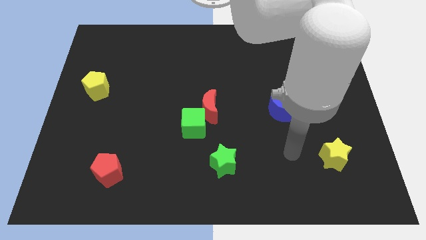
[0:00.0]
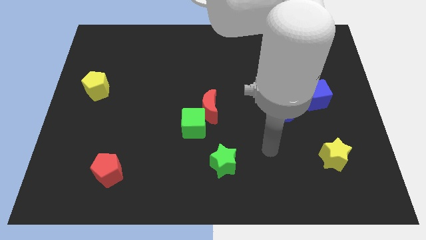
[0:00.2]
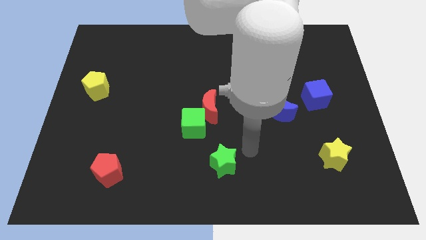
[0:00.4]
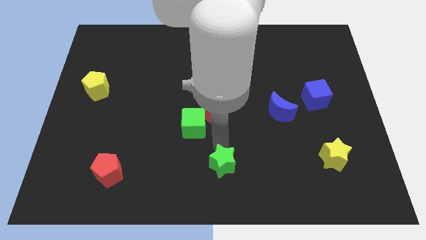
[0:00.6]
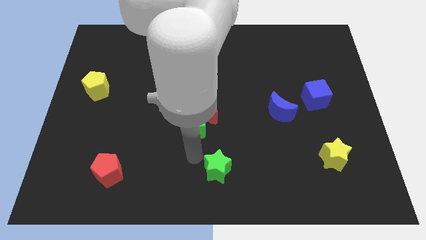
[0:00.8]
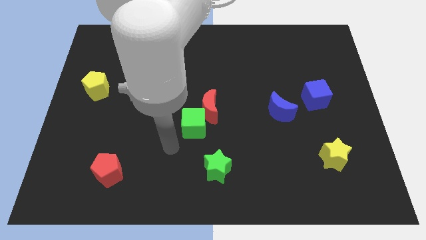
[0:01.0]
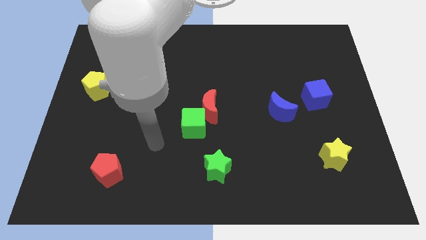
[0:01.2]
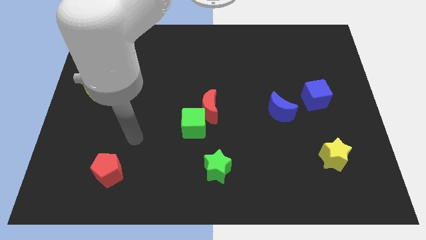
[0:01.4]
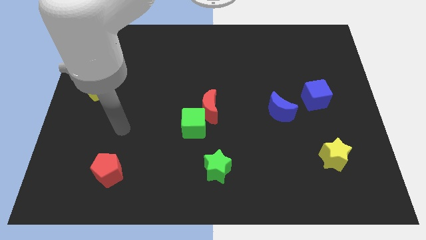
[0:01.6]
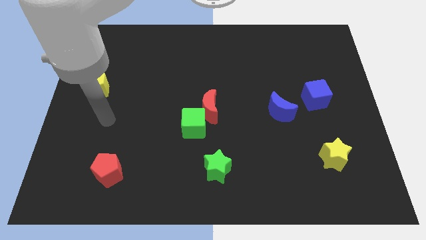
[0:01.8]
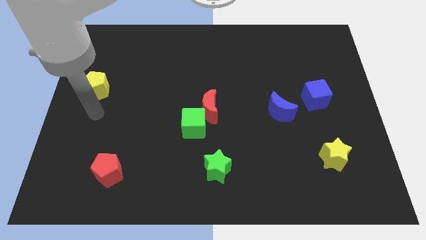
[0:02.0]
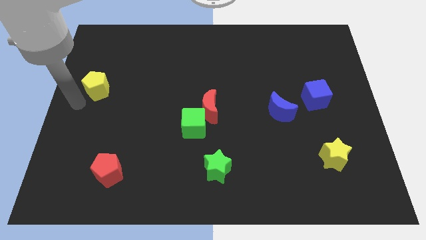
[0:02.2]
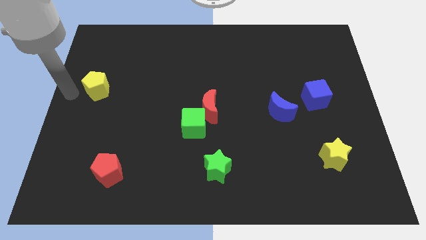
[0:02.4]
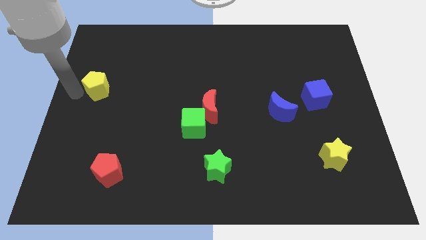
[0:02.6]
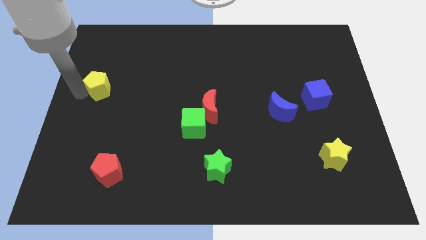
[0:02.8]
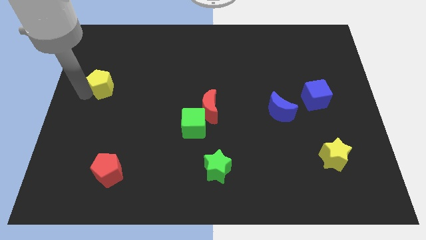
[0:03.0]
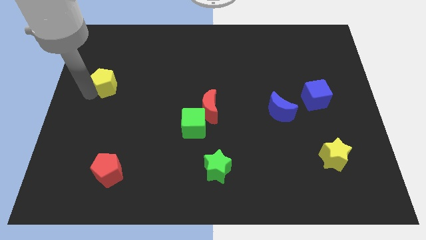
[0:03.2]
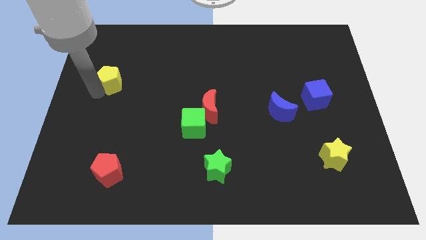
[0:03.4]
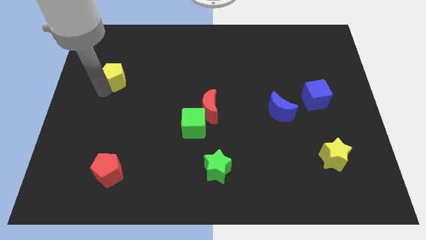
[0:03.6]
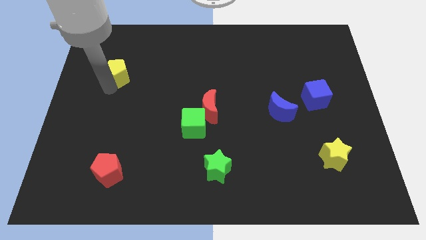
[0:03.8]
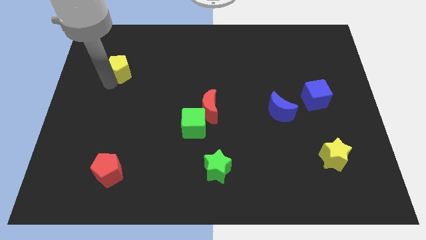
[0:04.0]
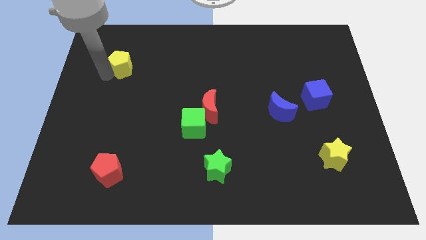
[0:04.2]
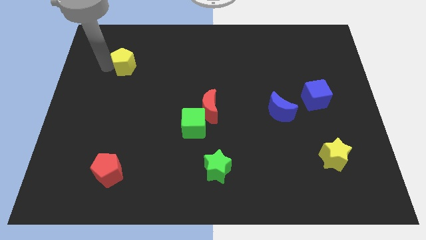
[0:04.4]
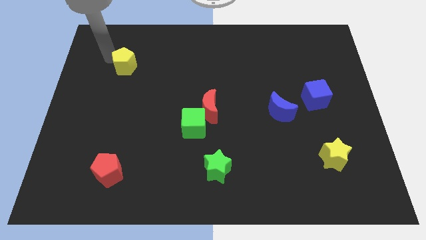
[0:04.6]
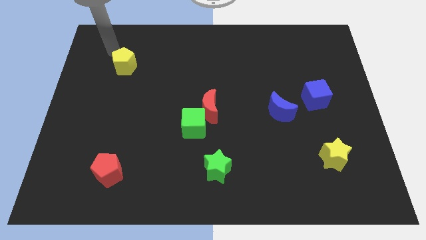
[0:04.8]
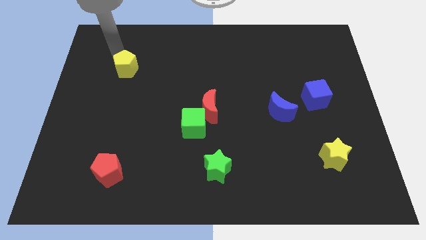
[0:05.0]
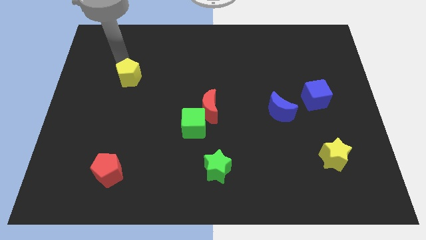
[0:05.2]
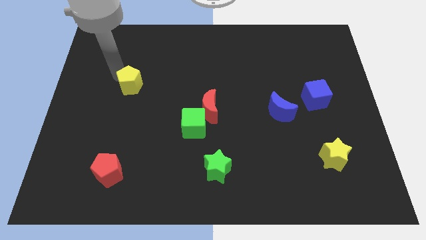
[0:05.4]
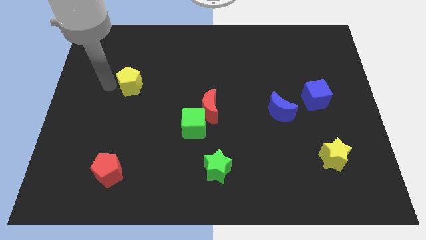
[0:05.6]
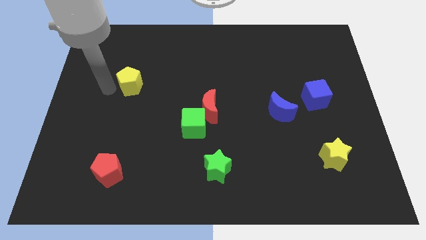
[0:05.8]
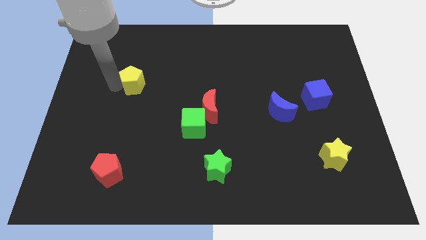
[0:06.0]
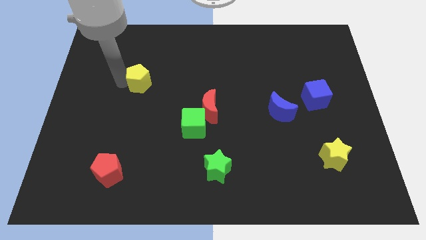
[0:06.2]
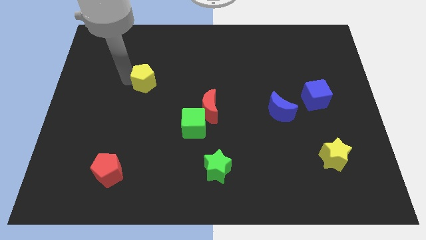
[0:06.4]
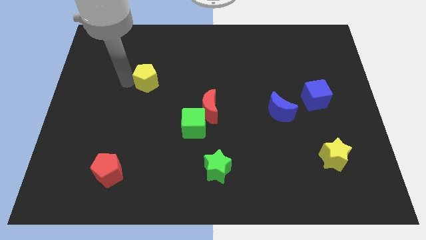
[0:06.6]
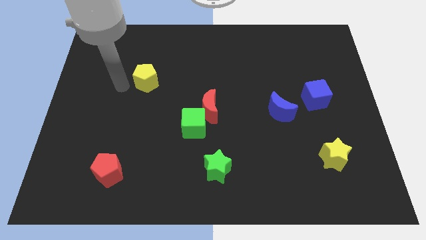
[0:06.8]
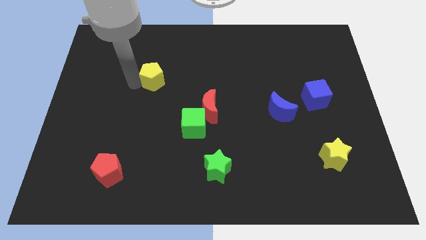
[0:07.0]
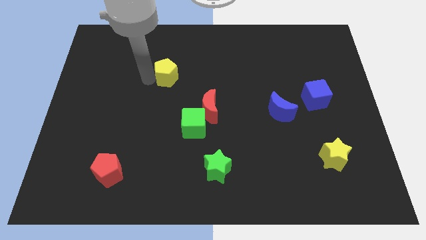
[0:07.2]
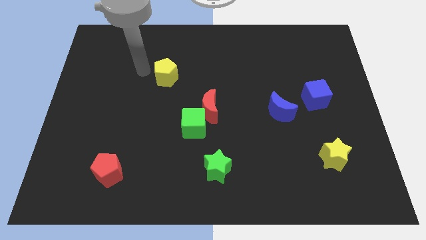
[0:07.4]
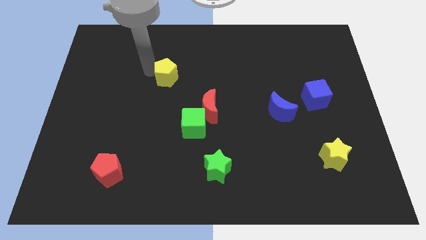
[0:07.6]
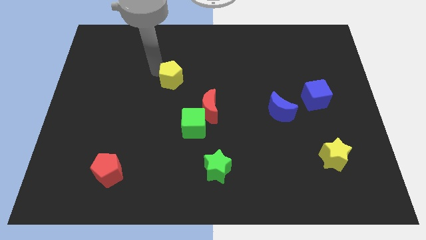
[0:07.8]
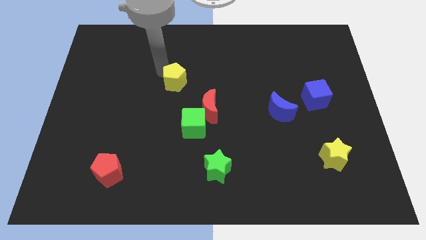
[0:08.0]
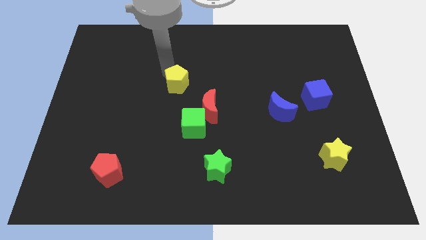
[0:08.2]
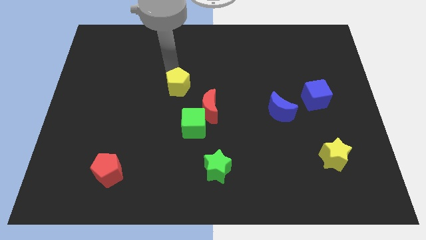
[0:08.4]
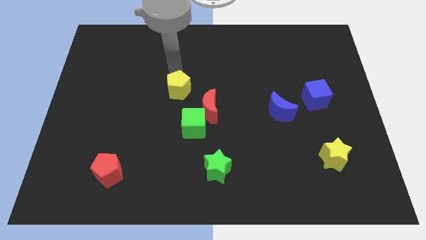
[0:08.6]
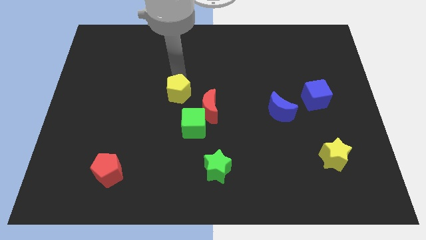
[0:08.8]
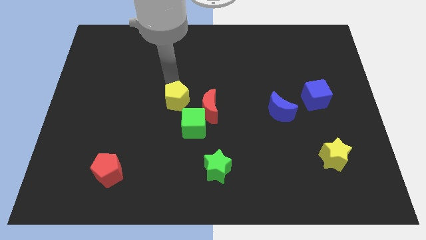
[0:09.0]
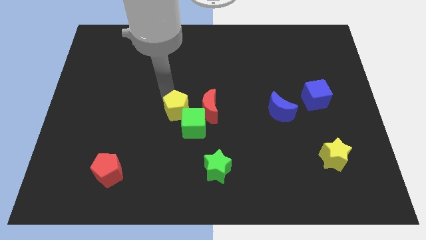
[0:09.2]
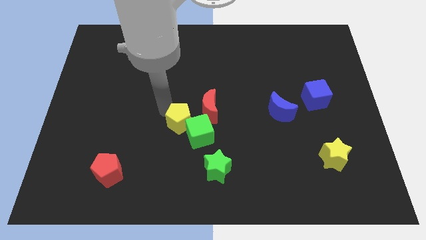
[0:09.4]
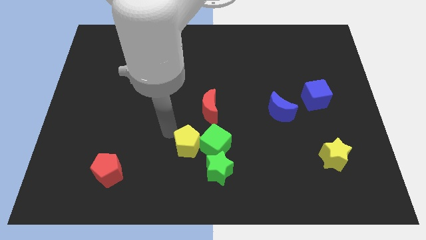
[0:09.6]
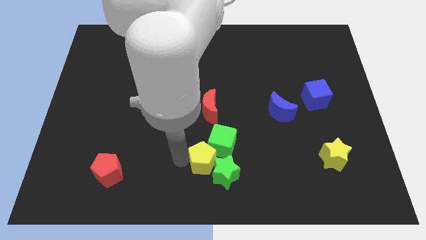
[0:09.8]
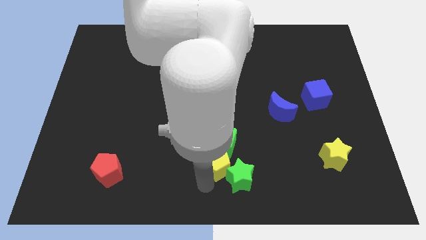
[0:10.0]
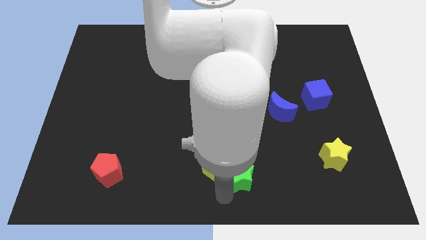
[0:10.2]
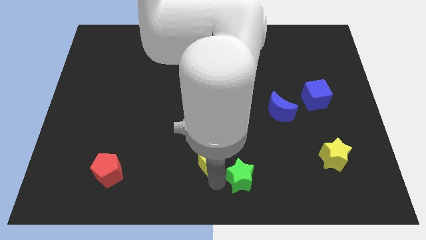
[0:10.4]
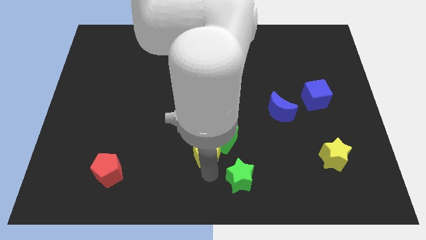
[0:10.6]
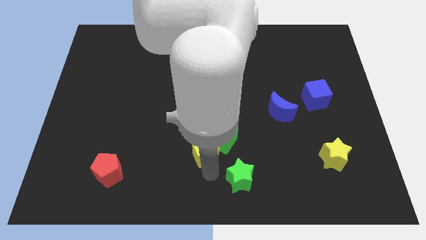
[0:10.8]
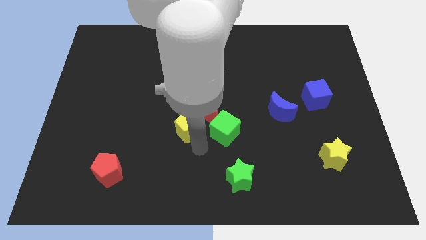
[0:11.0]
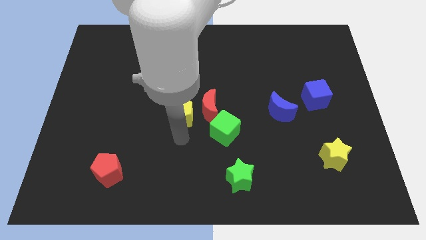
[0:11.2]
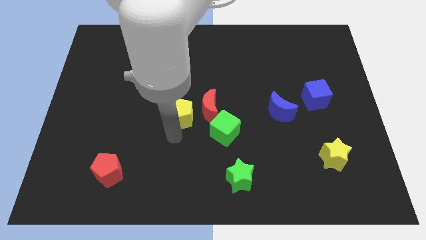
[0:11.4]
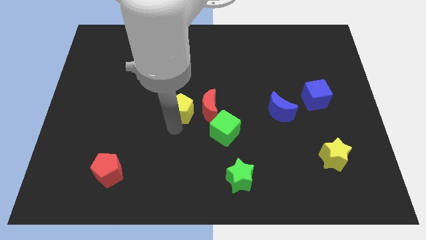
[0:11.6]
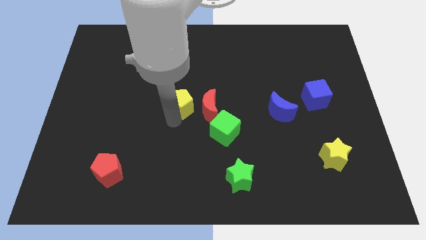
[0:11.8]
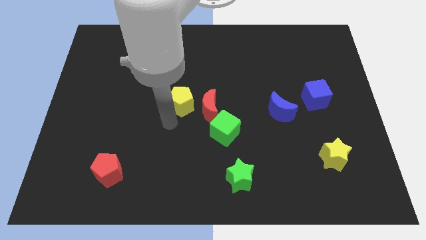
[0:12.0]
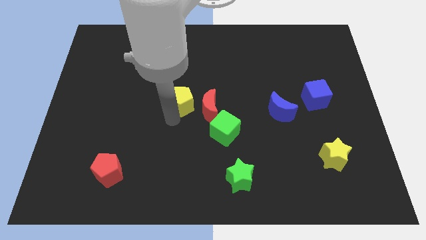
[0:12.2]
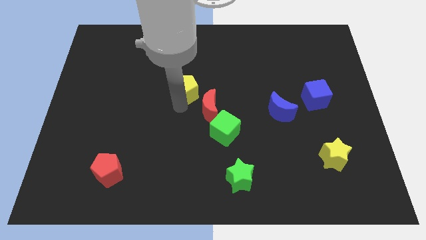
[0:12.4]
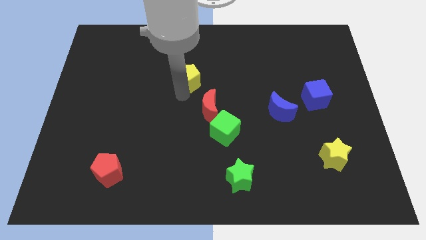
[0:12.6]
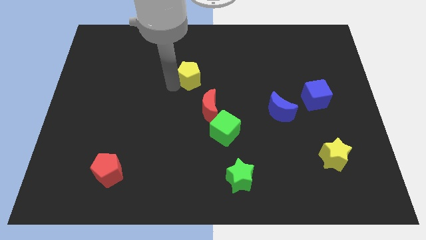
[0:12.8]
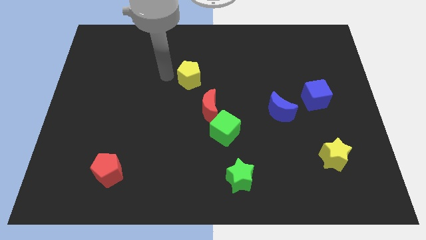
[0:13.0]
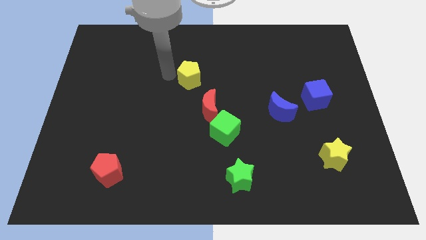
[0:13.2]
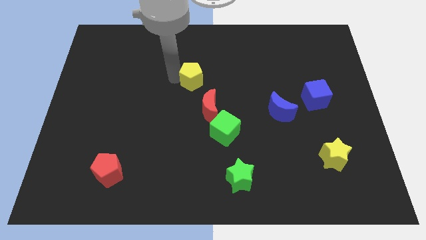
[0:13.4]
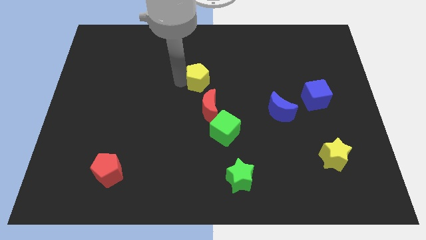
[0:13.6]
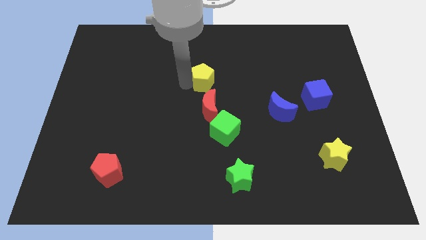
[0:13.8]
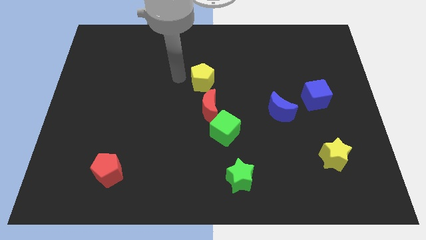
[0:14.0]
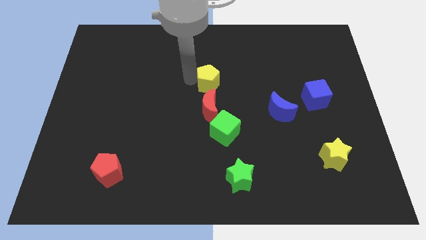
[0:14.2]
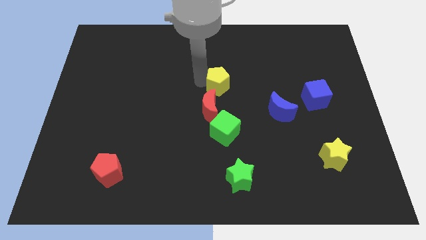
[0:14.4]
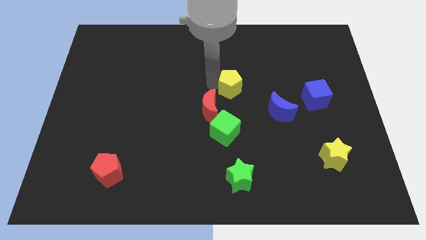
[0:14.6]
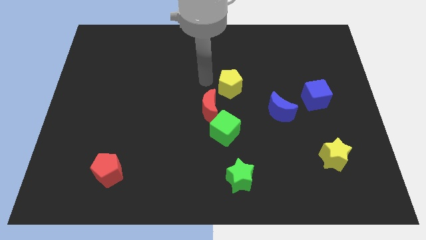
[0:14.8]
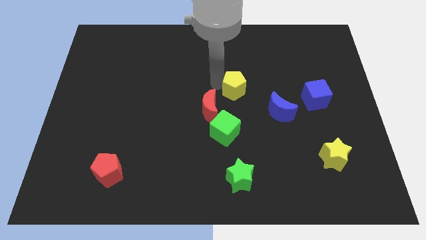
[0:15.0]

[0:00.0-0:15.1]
move the yellow pentagon to the top left of the blue moon
